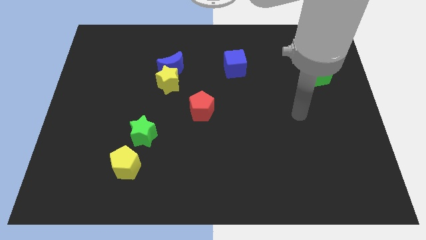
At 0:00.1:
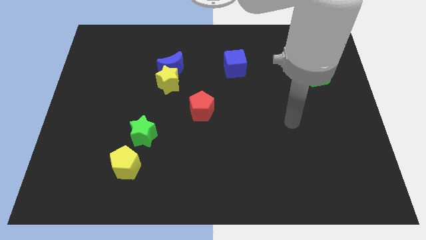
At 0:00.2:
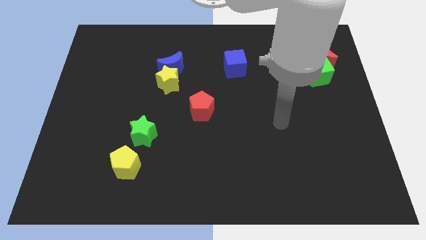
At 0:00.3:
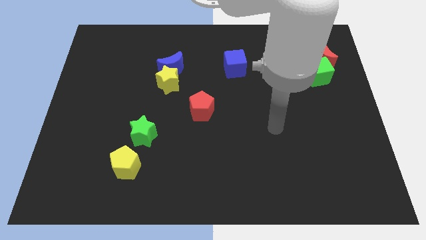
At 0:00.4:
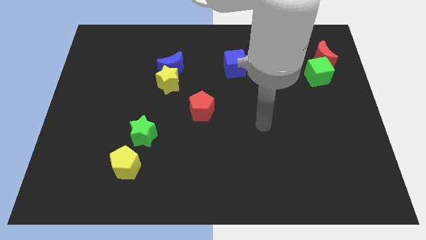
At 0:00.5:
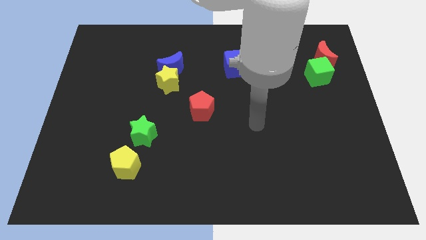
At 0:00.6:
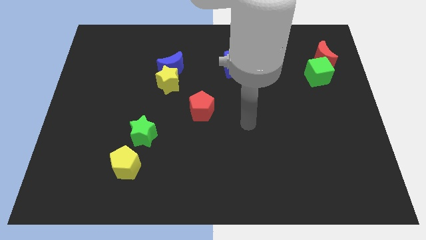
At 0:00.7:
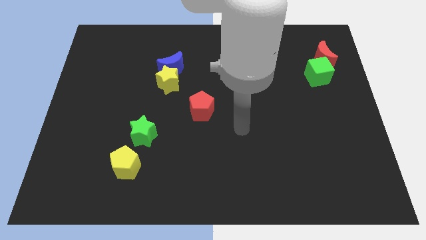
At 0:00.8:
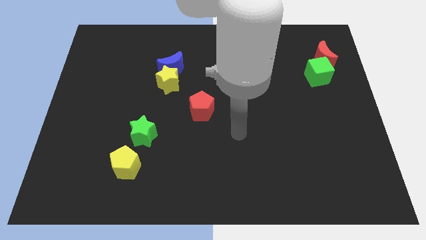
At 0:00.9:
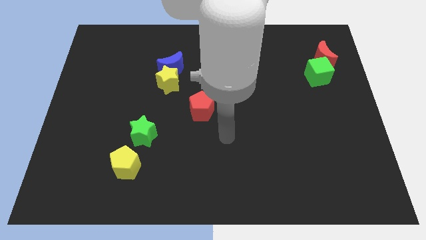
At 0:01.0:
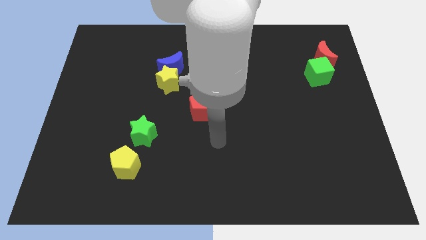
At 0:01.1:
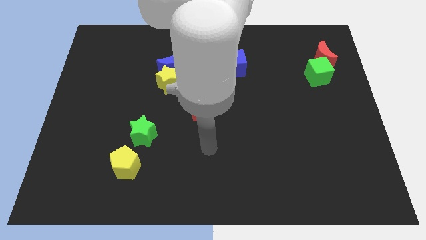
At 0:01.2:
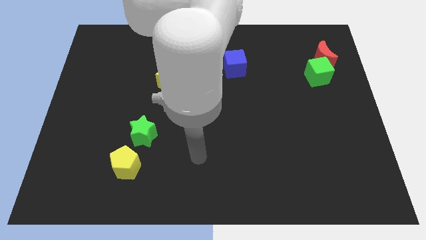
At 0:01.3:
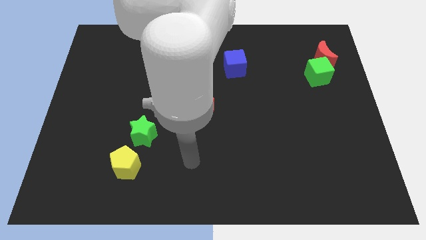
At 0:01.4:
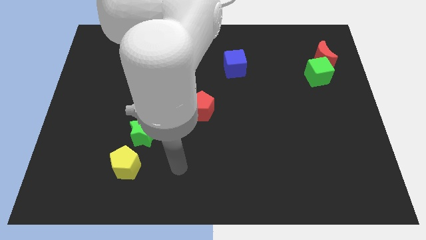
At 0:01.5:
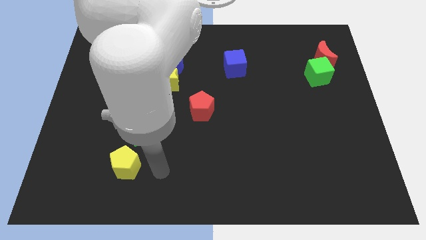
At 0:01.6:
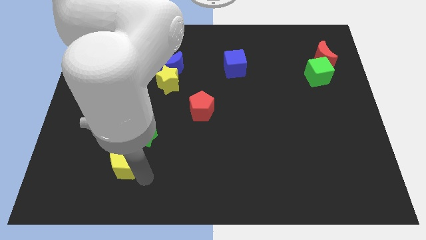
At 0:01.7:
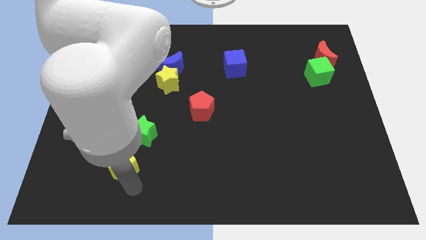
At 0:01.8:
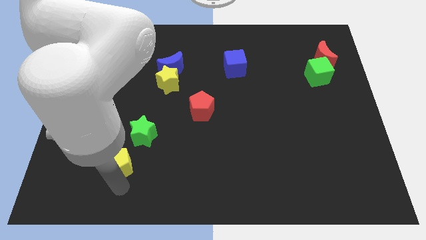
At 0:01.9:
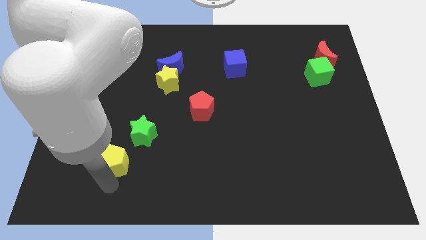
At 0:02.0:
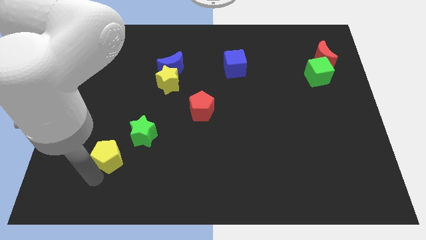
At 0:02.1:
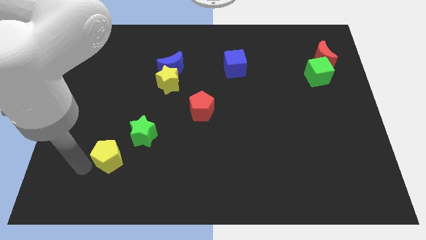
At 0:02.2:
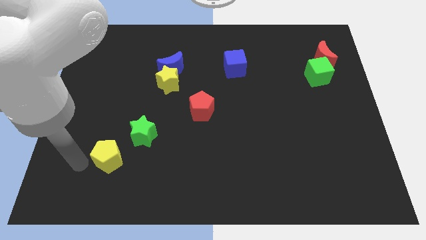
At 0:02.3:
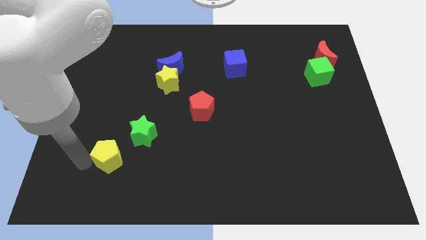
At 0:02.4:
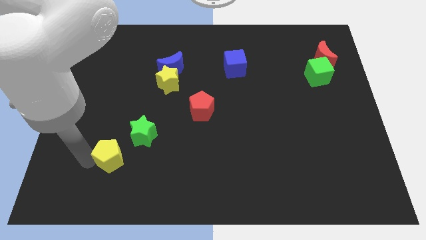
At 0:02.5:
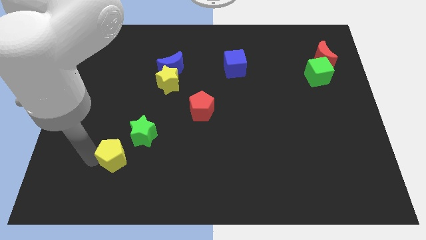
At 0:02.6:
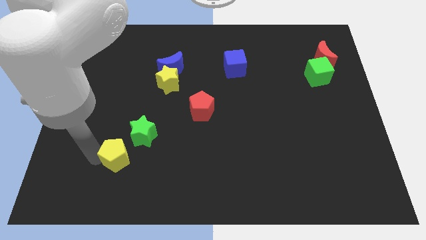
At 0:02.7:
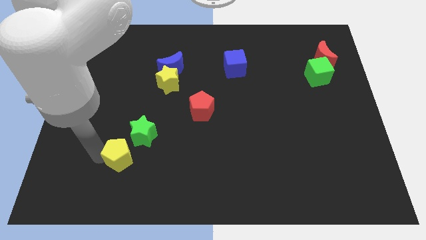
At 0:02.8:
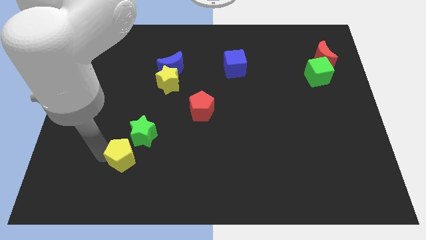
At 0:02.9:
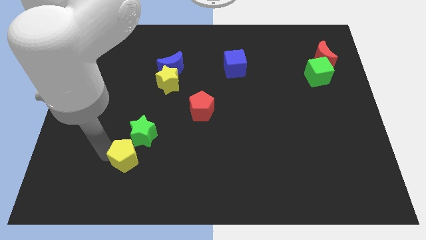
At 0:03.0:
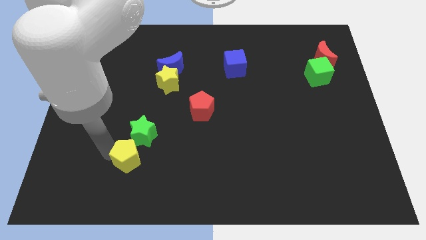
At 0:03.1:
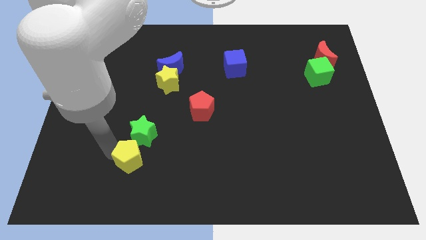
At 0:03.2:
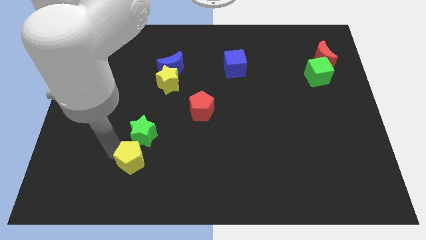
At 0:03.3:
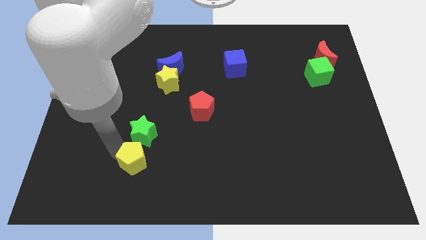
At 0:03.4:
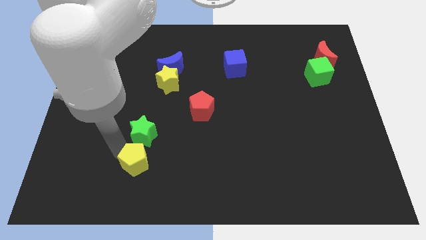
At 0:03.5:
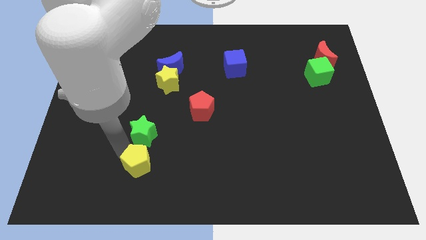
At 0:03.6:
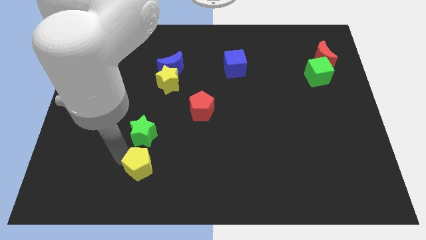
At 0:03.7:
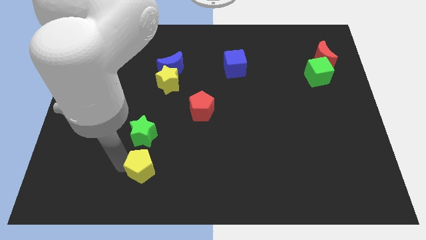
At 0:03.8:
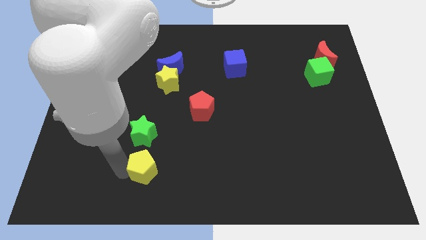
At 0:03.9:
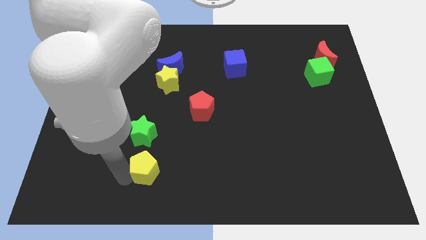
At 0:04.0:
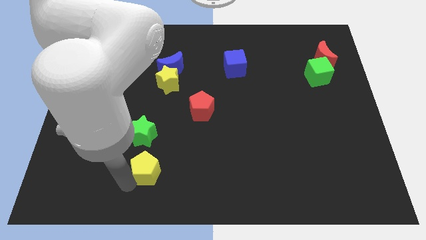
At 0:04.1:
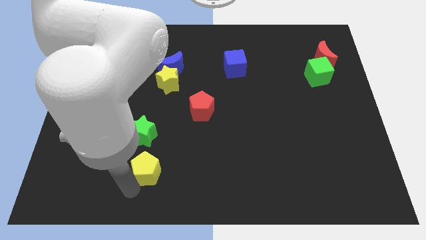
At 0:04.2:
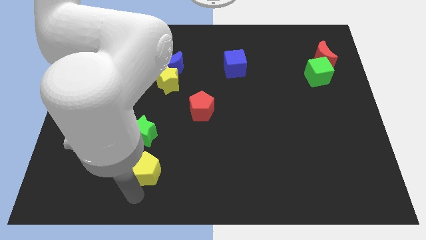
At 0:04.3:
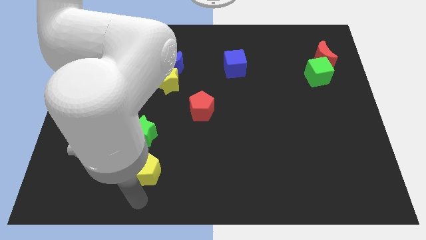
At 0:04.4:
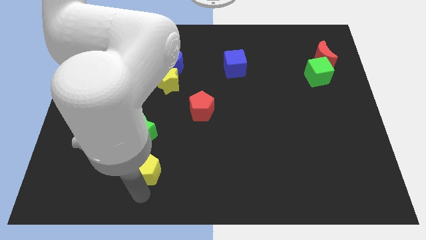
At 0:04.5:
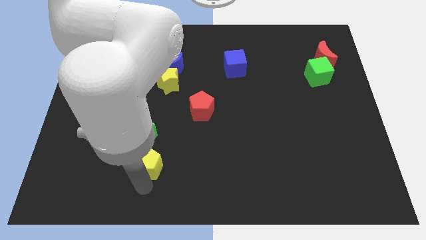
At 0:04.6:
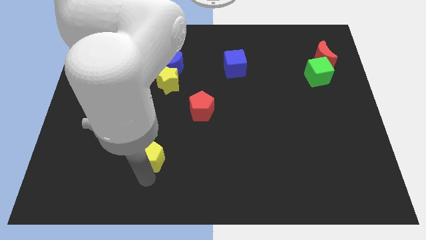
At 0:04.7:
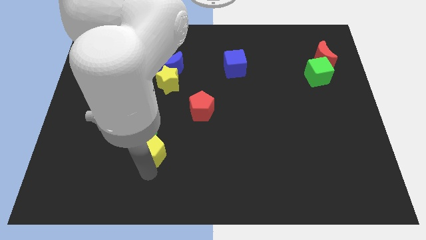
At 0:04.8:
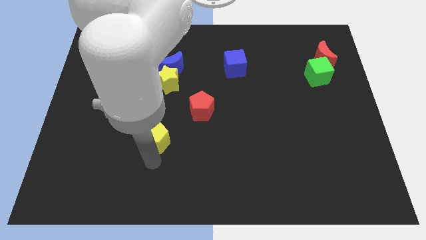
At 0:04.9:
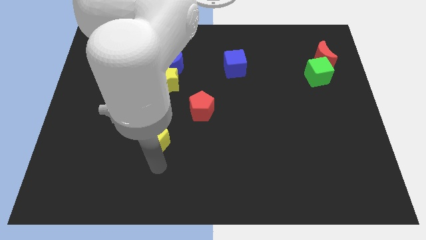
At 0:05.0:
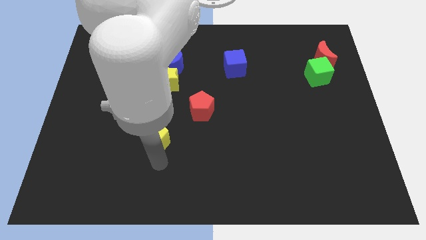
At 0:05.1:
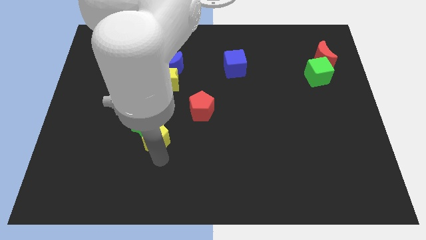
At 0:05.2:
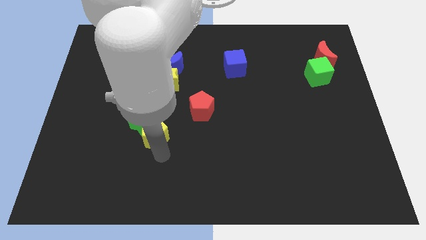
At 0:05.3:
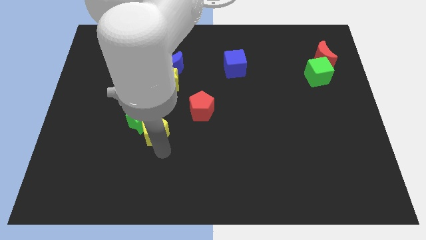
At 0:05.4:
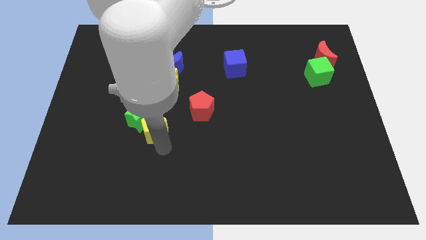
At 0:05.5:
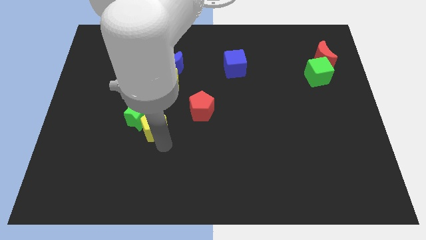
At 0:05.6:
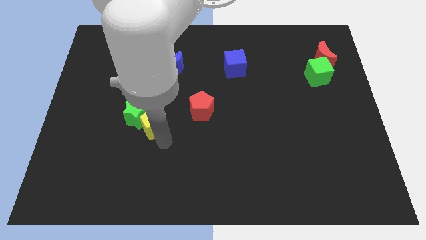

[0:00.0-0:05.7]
put the yellow pentagon just left of the red pentagon

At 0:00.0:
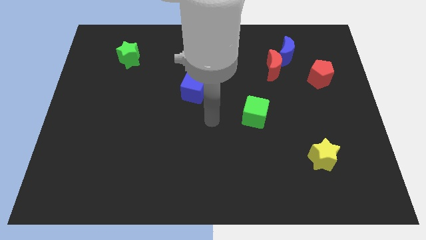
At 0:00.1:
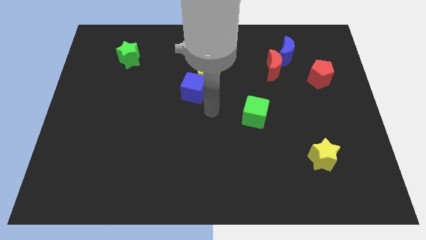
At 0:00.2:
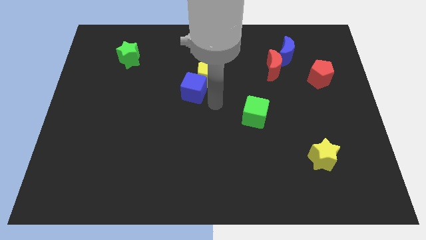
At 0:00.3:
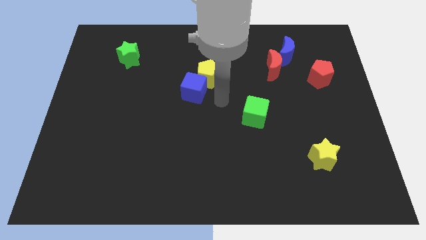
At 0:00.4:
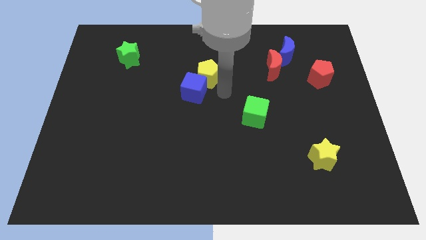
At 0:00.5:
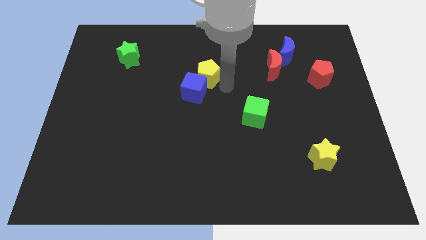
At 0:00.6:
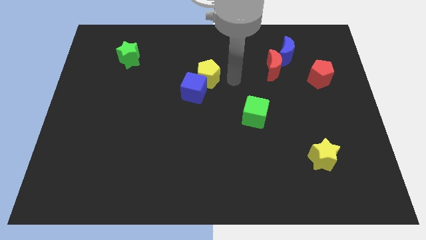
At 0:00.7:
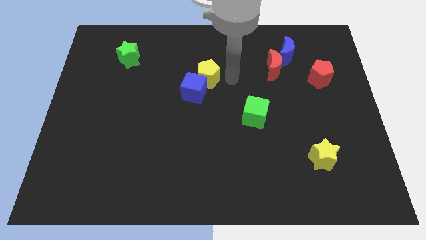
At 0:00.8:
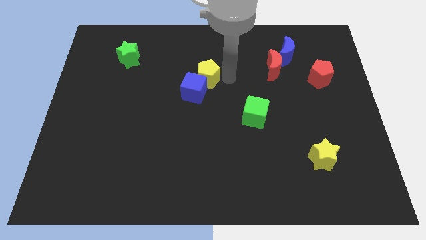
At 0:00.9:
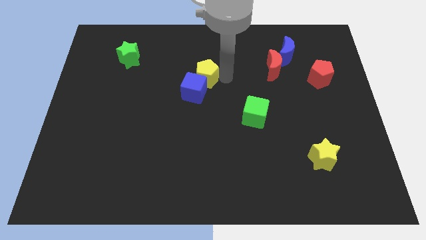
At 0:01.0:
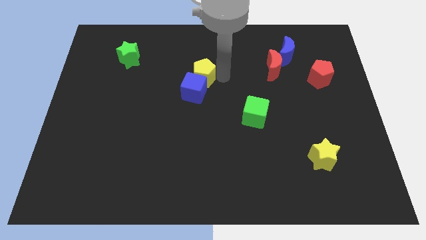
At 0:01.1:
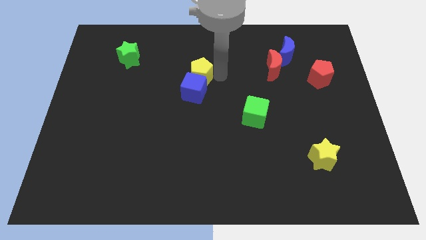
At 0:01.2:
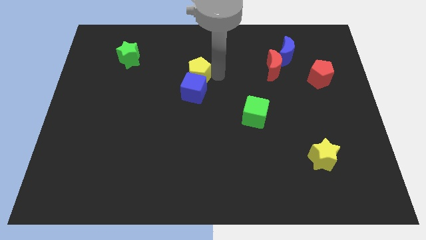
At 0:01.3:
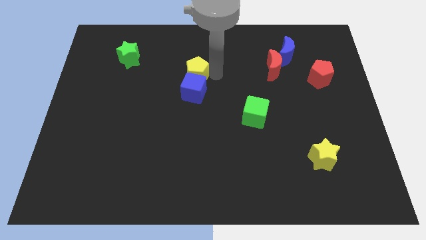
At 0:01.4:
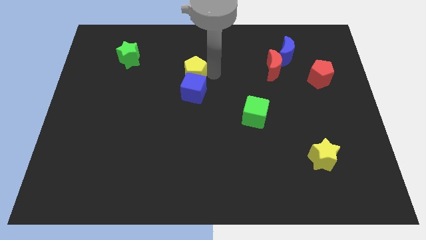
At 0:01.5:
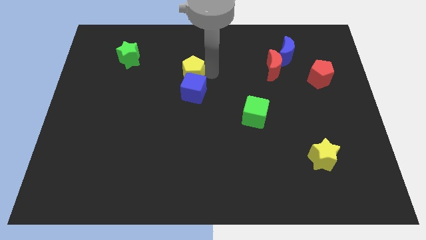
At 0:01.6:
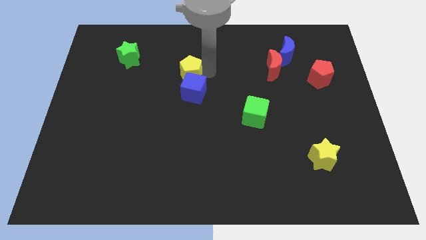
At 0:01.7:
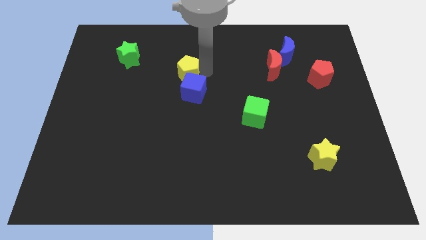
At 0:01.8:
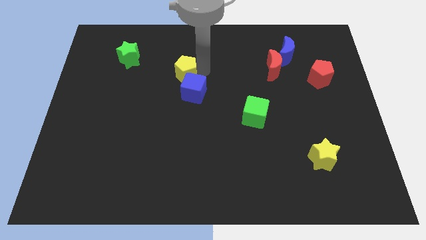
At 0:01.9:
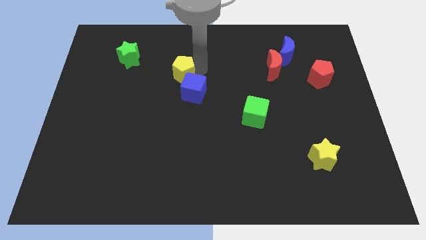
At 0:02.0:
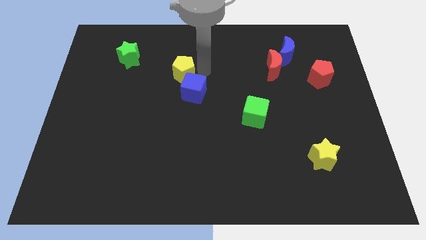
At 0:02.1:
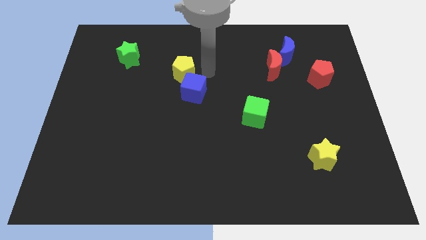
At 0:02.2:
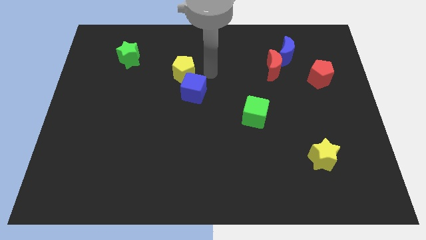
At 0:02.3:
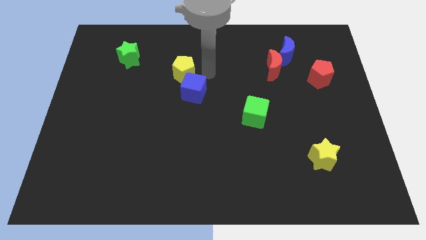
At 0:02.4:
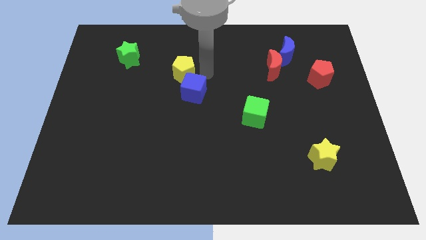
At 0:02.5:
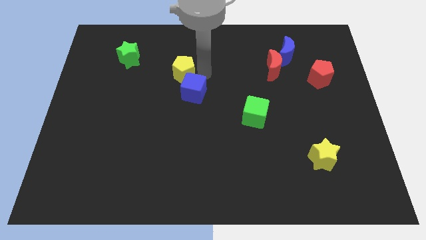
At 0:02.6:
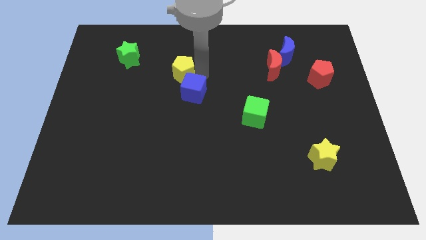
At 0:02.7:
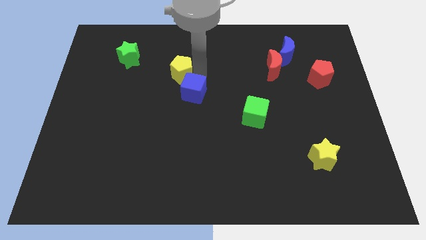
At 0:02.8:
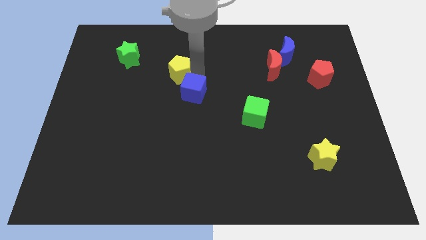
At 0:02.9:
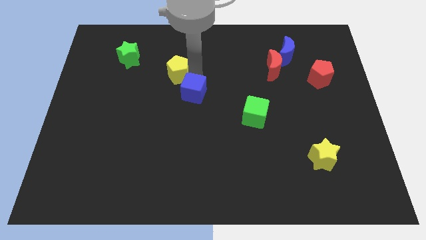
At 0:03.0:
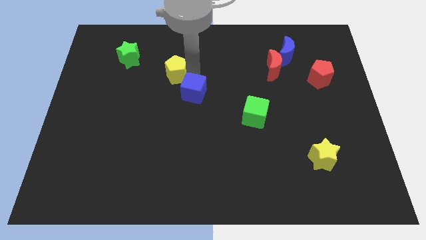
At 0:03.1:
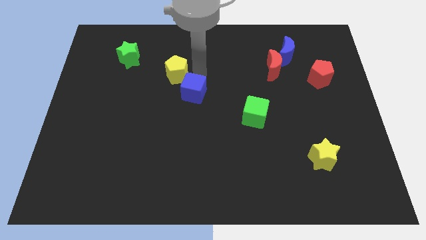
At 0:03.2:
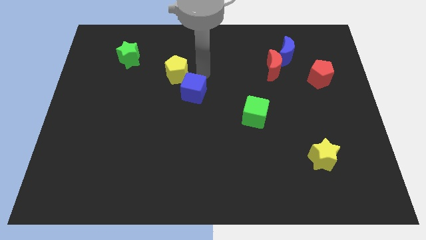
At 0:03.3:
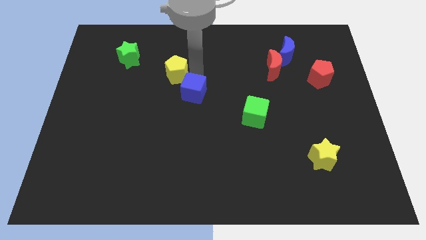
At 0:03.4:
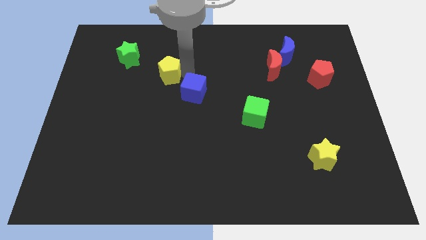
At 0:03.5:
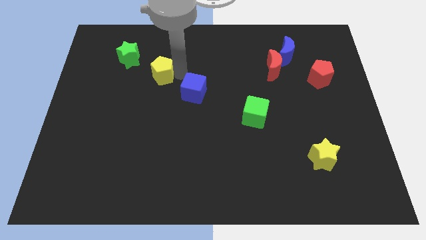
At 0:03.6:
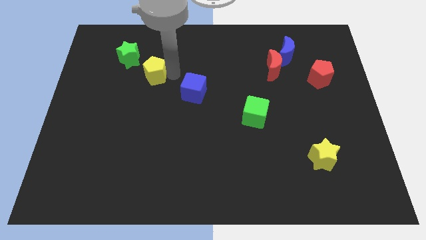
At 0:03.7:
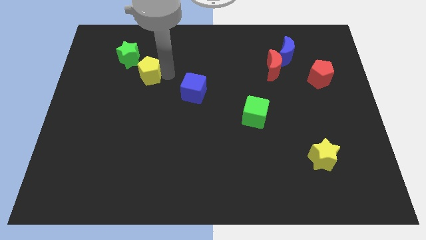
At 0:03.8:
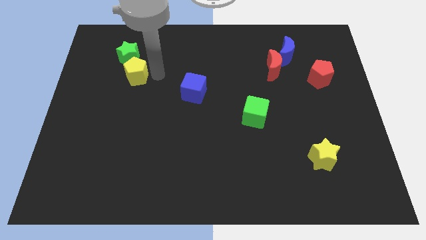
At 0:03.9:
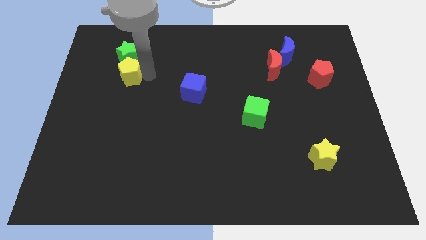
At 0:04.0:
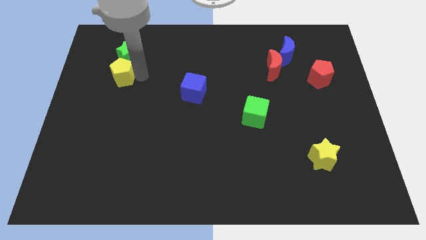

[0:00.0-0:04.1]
put the yellow pentagon to the bottom left of the green star
